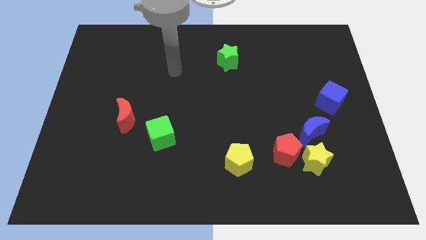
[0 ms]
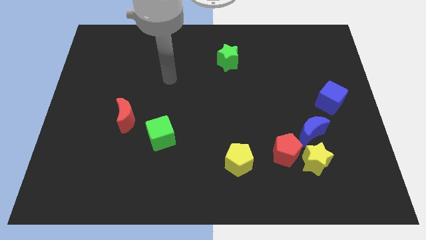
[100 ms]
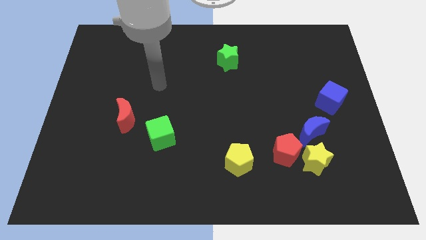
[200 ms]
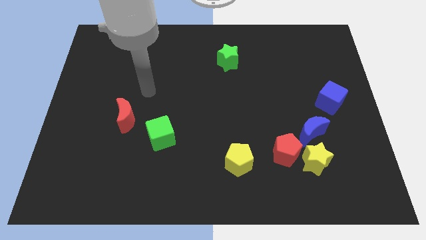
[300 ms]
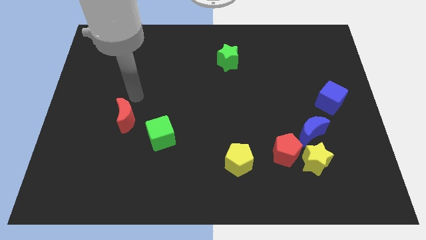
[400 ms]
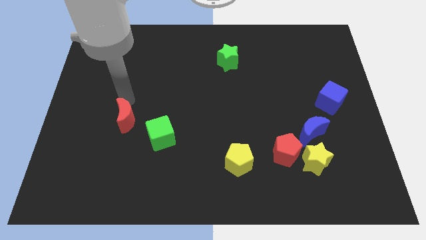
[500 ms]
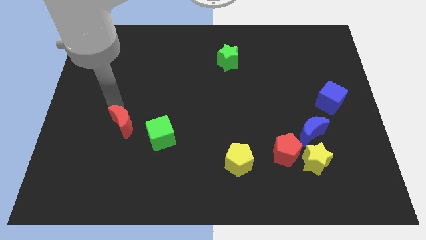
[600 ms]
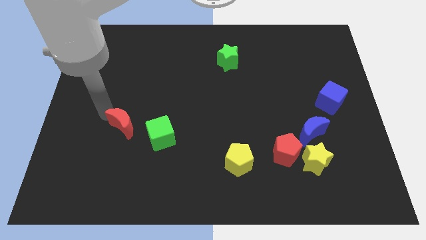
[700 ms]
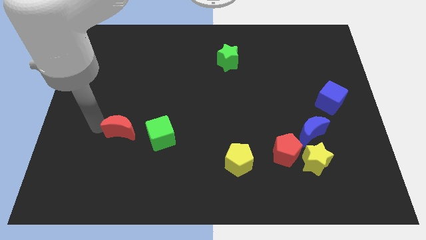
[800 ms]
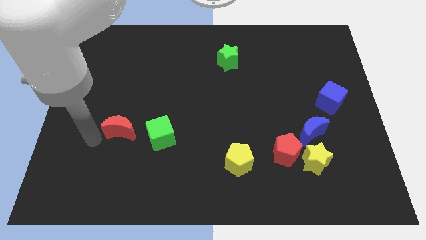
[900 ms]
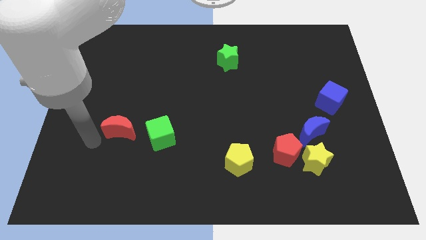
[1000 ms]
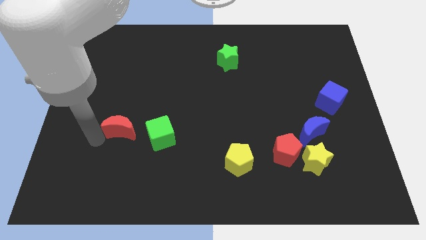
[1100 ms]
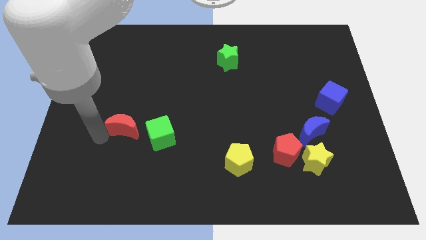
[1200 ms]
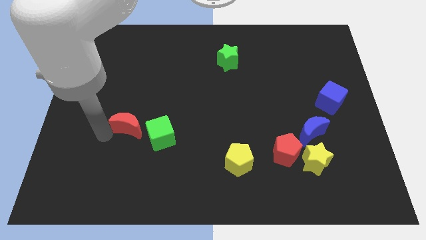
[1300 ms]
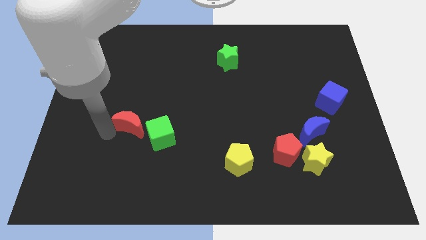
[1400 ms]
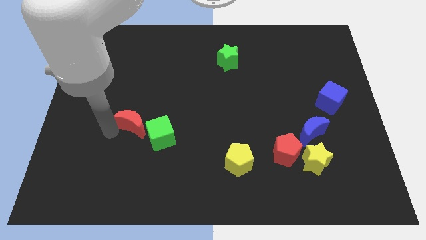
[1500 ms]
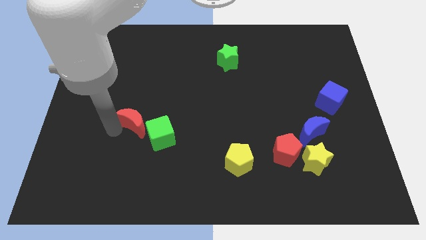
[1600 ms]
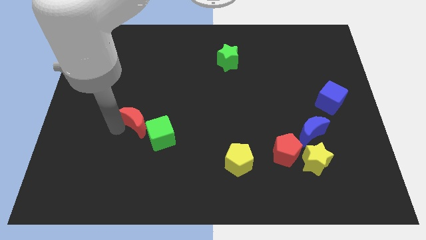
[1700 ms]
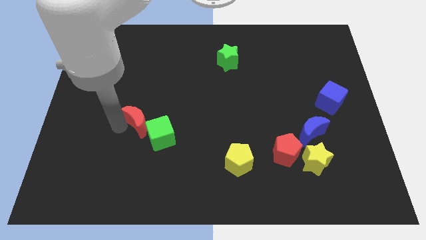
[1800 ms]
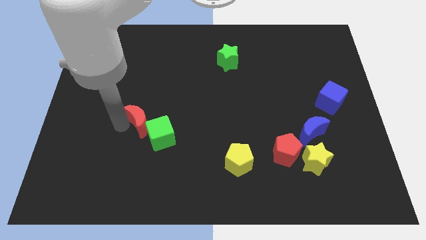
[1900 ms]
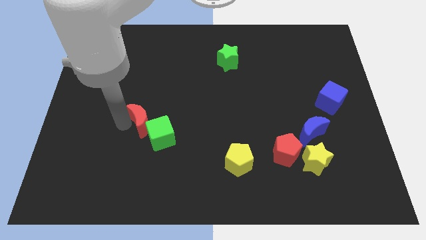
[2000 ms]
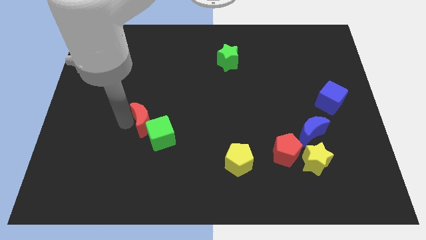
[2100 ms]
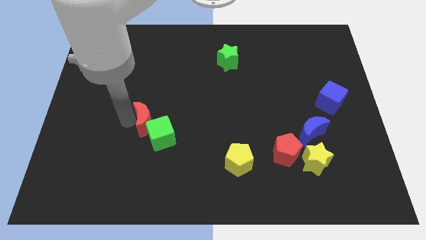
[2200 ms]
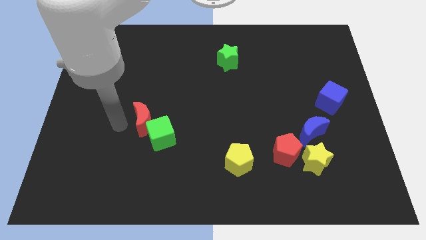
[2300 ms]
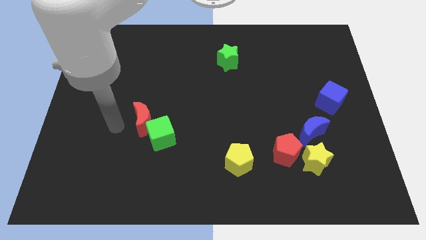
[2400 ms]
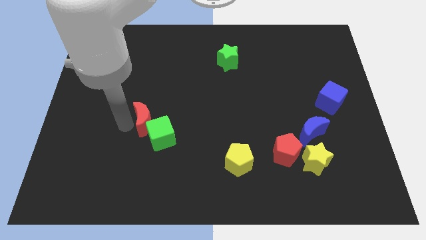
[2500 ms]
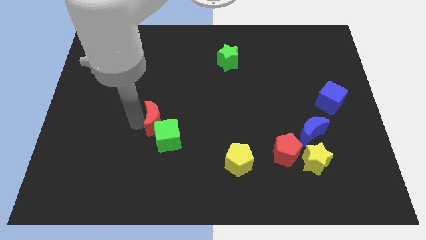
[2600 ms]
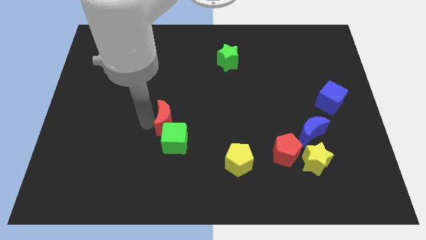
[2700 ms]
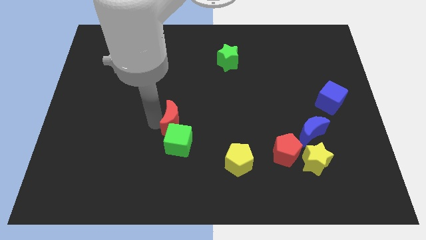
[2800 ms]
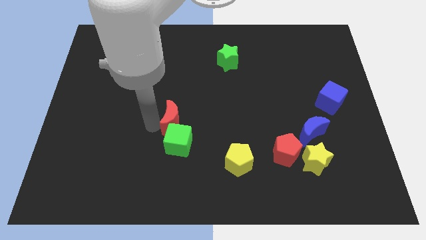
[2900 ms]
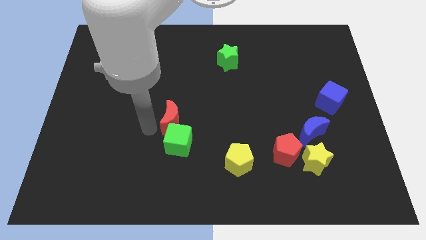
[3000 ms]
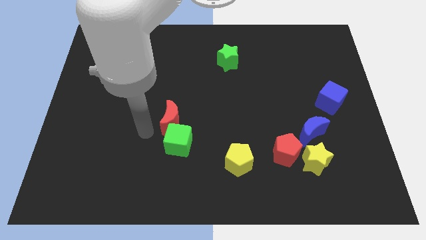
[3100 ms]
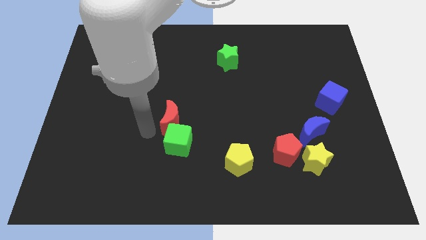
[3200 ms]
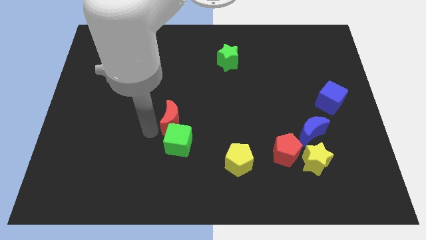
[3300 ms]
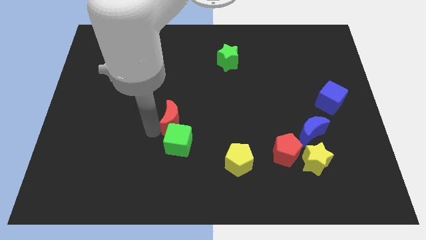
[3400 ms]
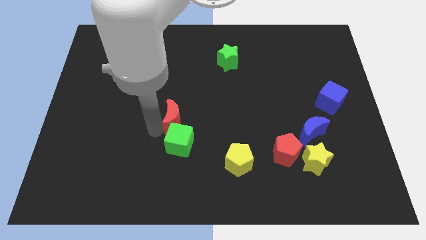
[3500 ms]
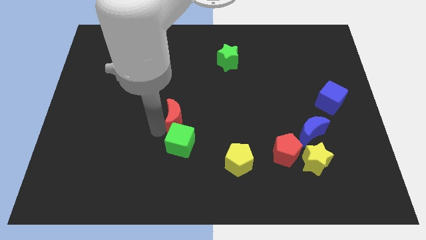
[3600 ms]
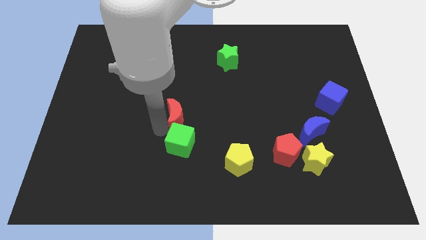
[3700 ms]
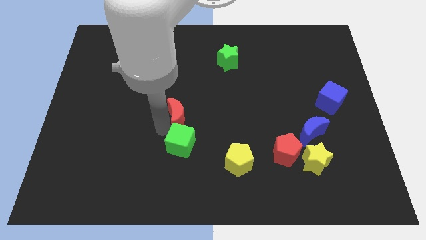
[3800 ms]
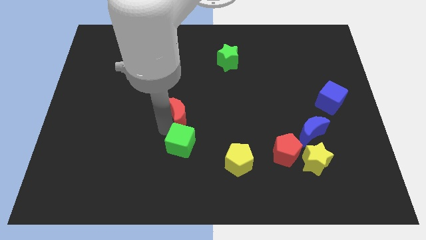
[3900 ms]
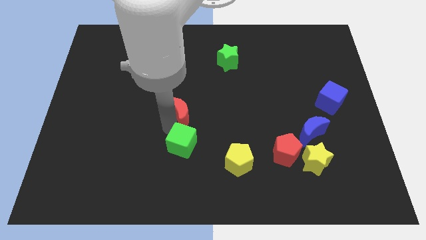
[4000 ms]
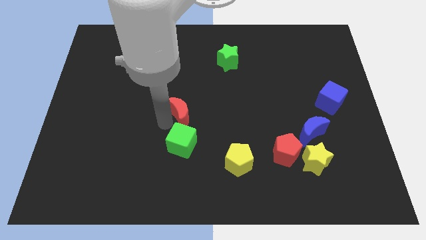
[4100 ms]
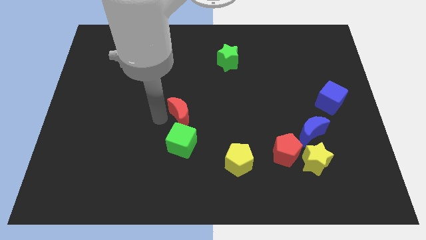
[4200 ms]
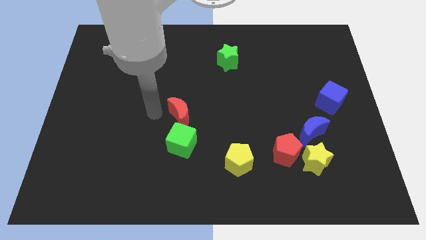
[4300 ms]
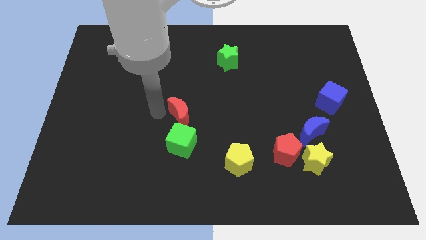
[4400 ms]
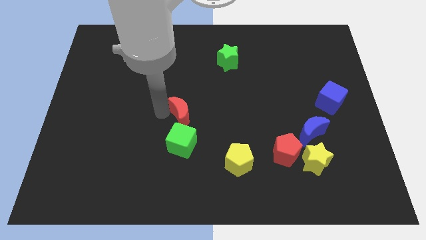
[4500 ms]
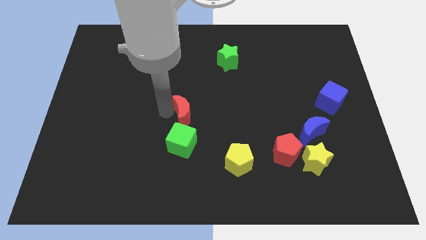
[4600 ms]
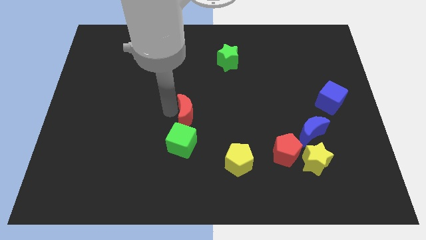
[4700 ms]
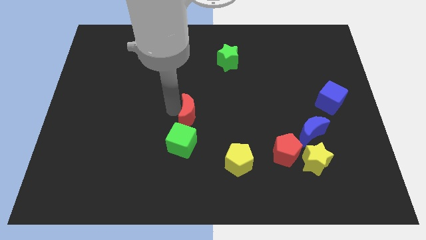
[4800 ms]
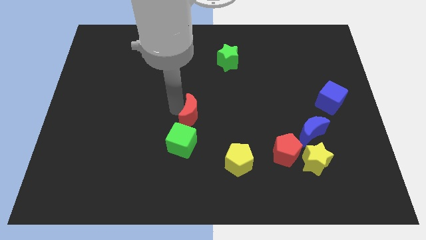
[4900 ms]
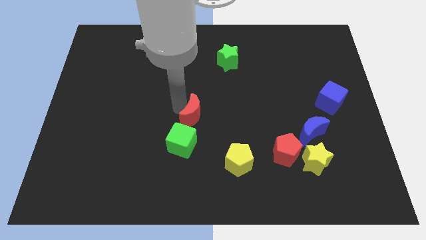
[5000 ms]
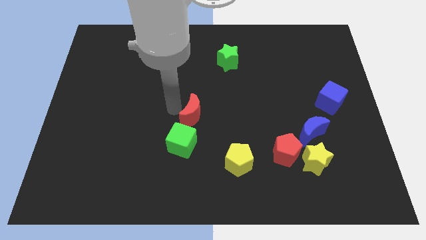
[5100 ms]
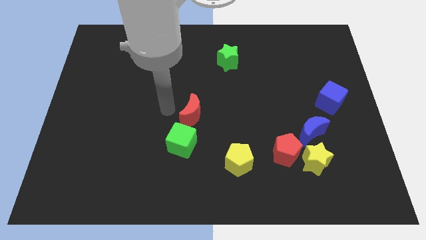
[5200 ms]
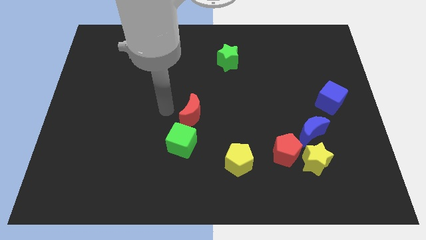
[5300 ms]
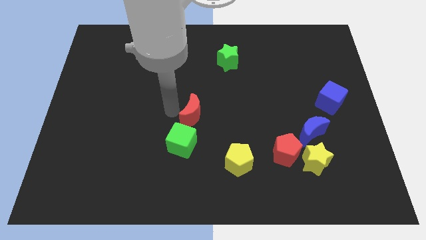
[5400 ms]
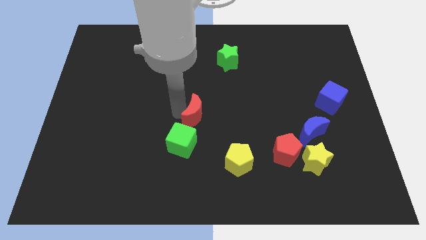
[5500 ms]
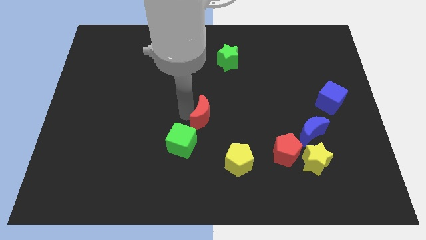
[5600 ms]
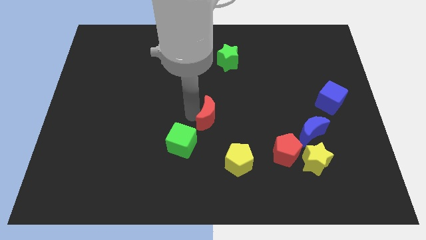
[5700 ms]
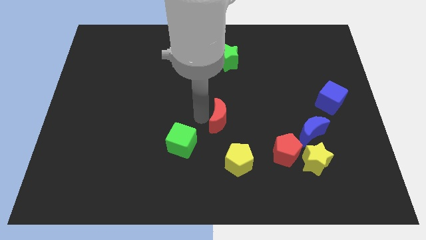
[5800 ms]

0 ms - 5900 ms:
move the red moon to the right

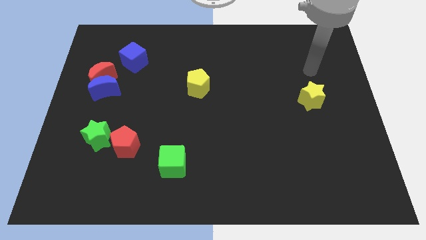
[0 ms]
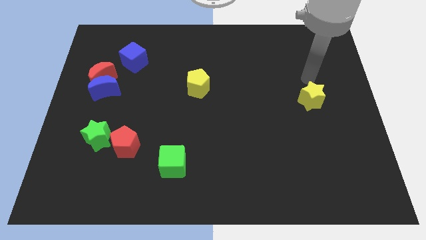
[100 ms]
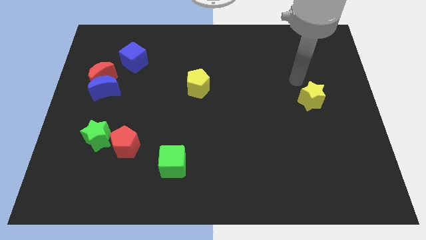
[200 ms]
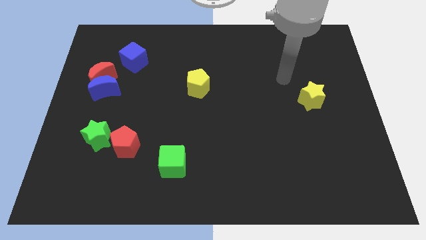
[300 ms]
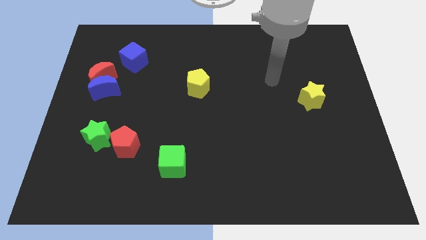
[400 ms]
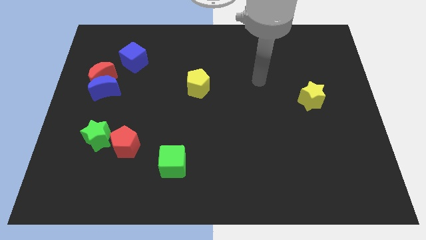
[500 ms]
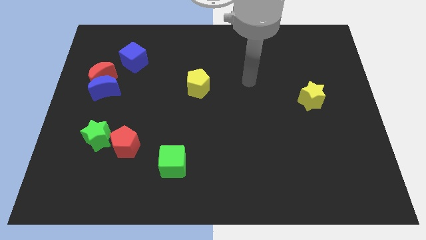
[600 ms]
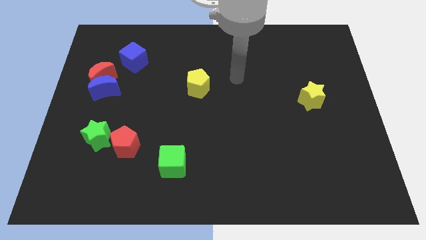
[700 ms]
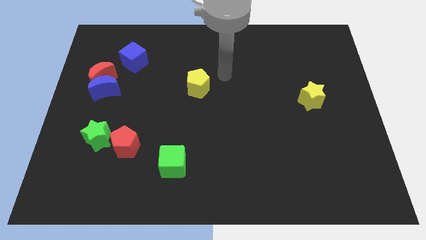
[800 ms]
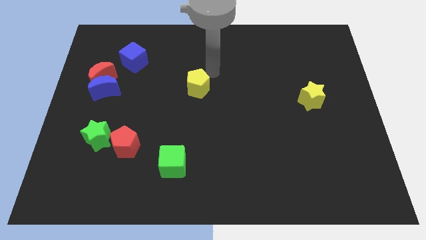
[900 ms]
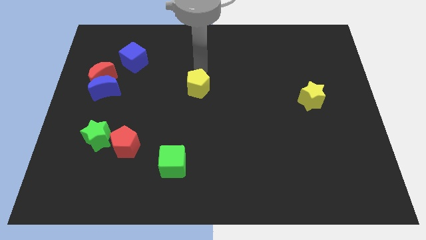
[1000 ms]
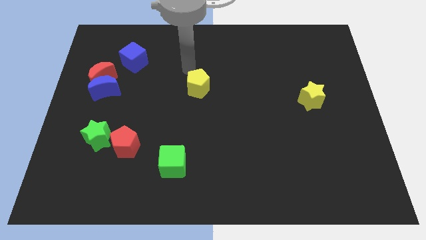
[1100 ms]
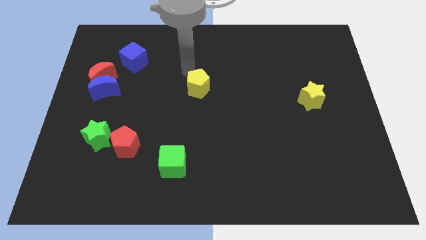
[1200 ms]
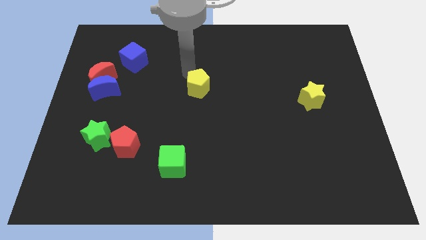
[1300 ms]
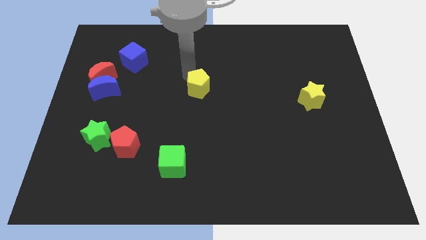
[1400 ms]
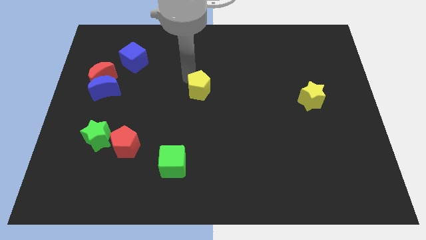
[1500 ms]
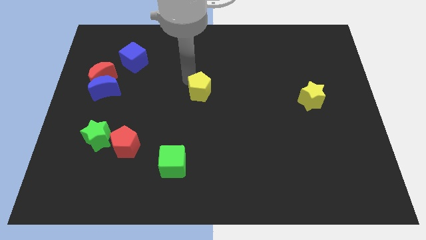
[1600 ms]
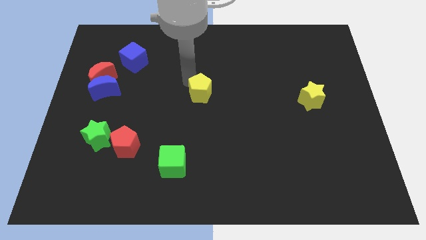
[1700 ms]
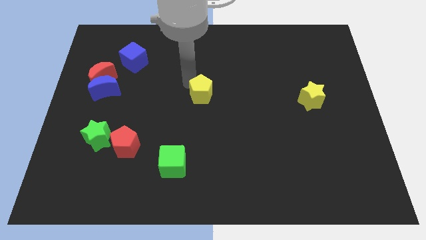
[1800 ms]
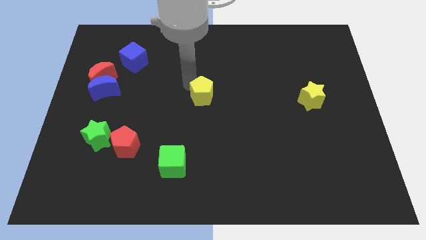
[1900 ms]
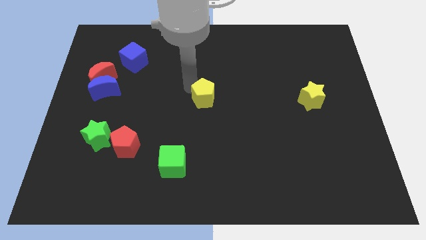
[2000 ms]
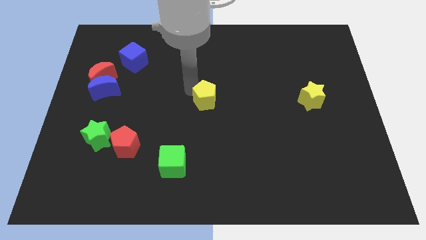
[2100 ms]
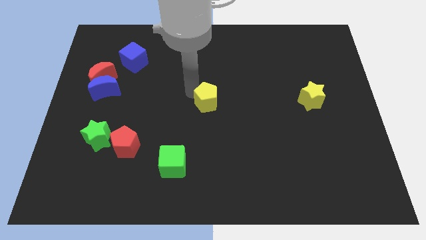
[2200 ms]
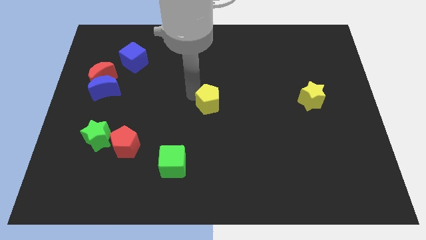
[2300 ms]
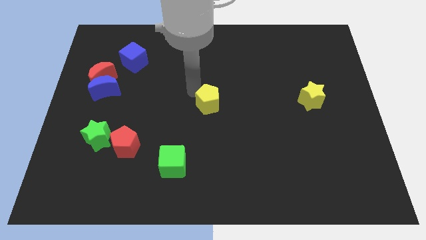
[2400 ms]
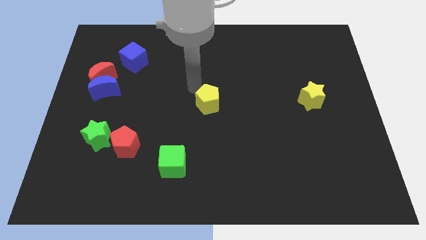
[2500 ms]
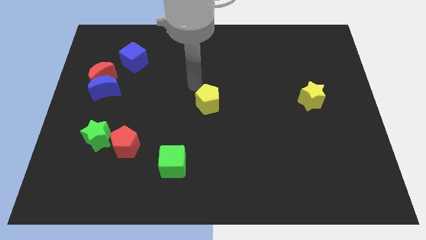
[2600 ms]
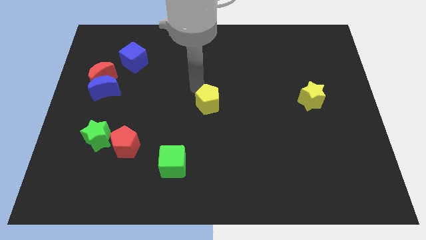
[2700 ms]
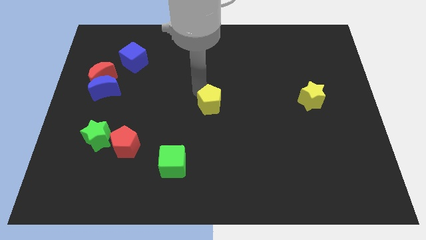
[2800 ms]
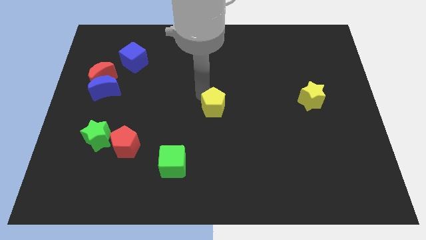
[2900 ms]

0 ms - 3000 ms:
push the yellow pentagon diagonally downwards and right slightly
